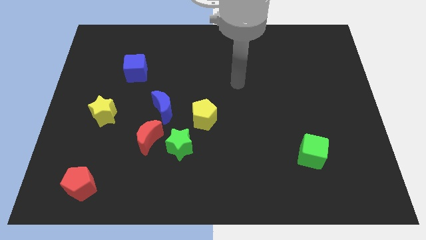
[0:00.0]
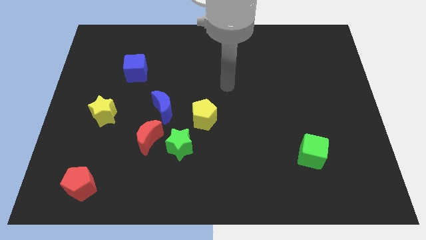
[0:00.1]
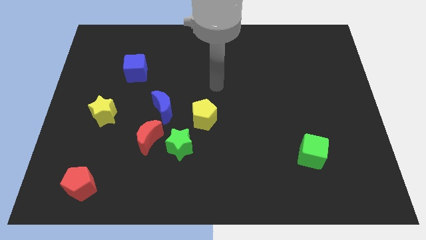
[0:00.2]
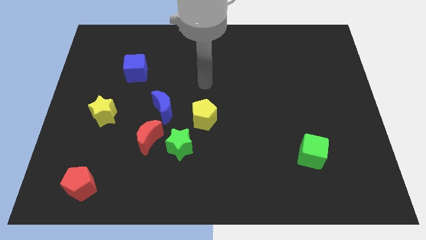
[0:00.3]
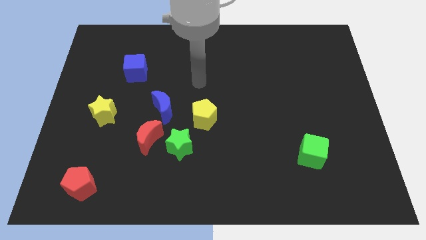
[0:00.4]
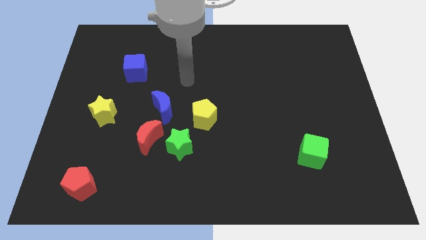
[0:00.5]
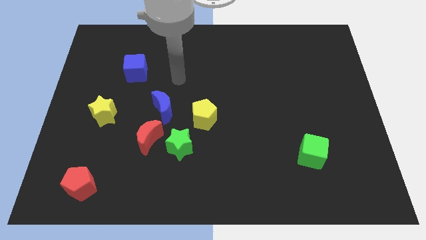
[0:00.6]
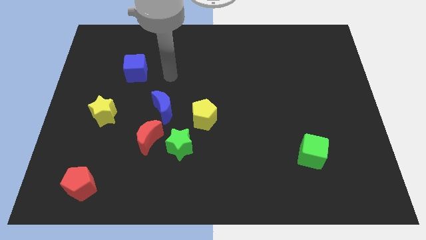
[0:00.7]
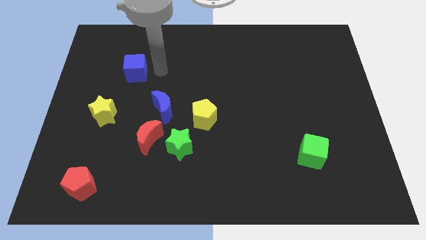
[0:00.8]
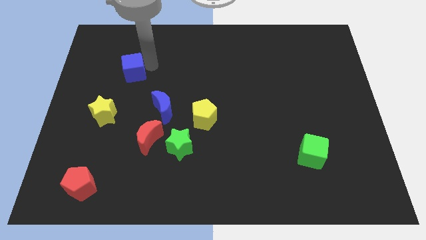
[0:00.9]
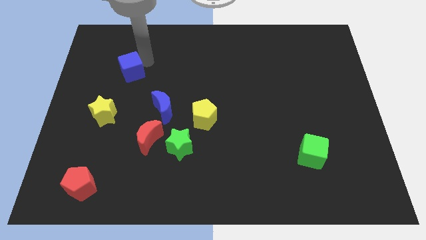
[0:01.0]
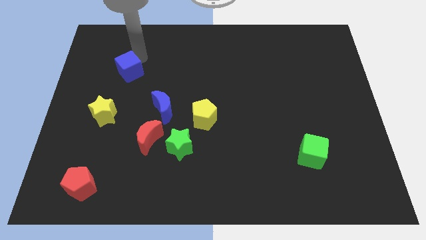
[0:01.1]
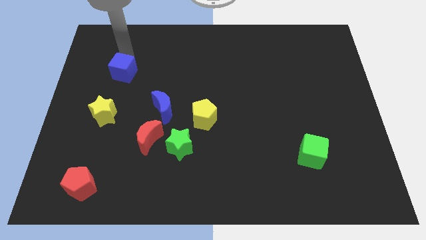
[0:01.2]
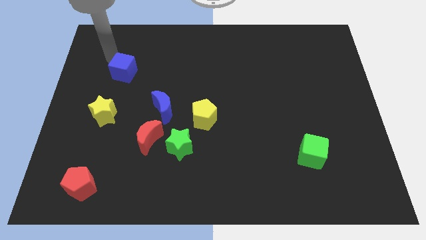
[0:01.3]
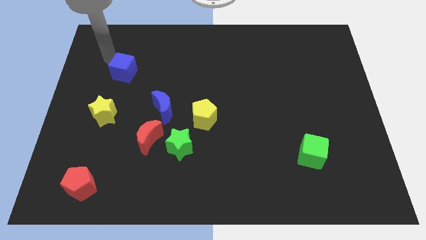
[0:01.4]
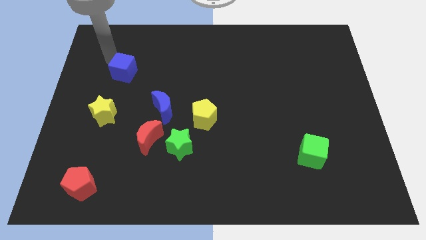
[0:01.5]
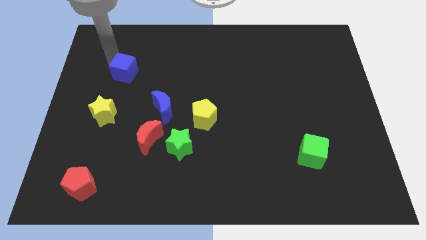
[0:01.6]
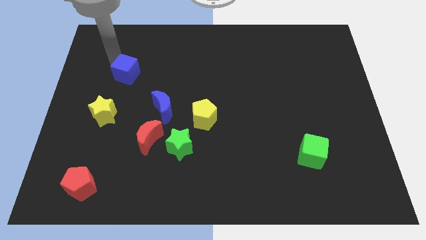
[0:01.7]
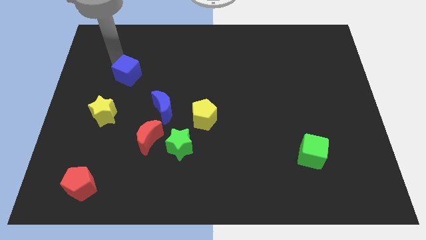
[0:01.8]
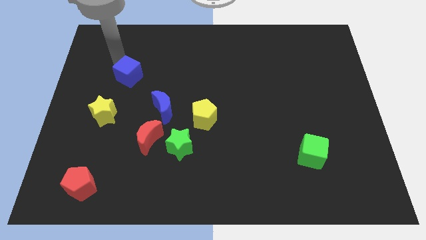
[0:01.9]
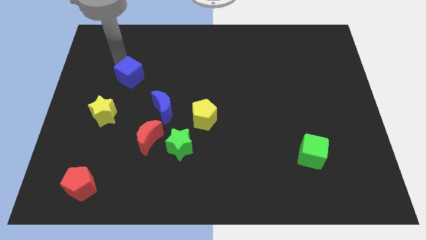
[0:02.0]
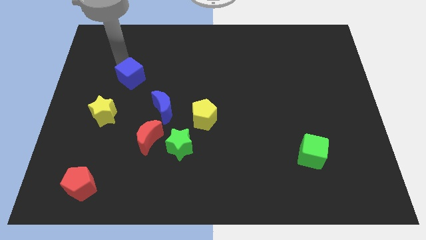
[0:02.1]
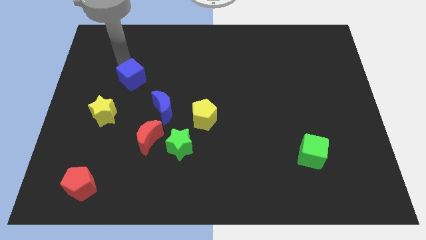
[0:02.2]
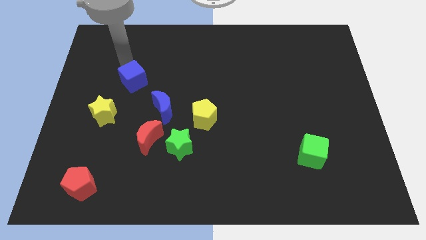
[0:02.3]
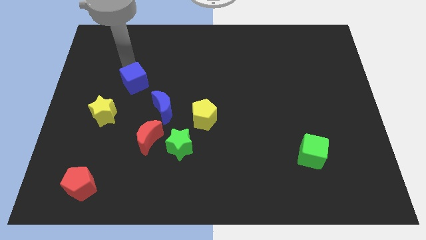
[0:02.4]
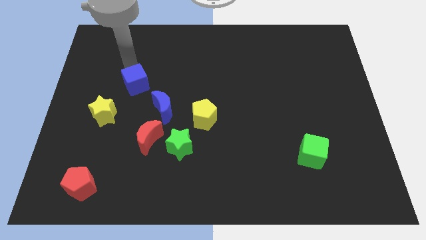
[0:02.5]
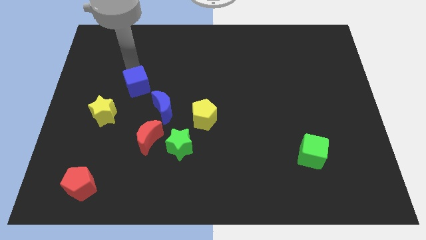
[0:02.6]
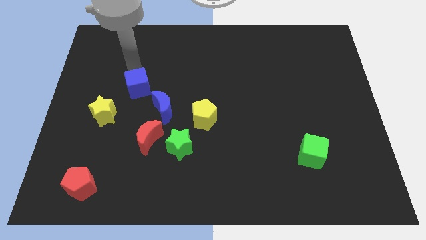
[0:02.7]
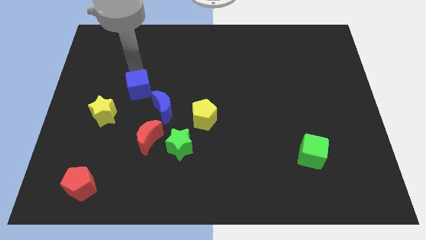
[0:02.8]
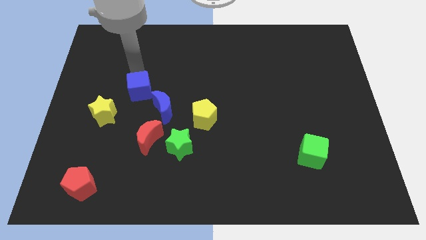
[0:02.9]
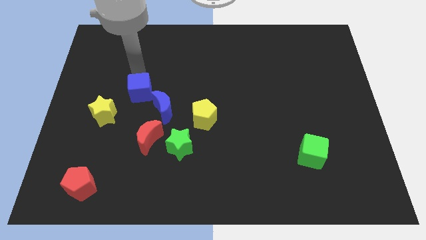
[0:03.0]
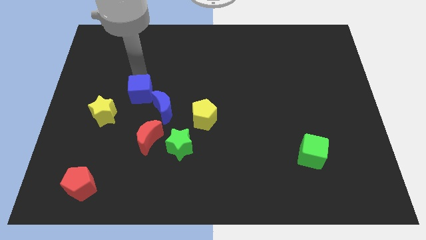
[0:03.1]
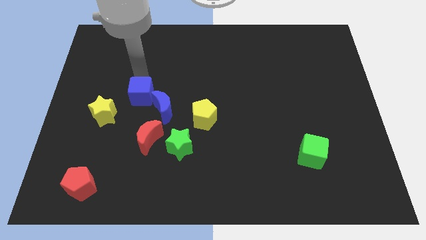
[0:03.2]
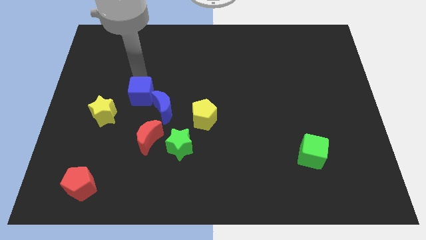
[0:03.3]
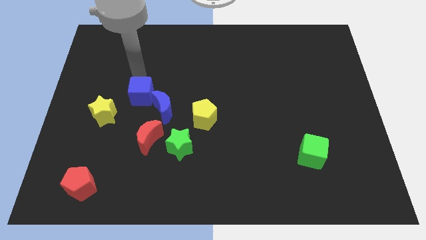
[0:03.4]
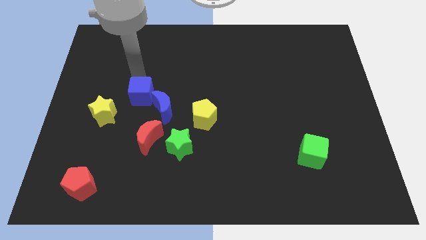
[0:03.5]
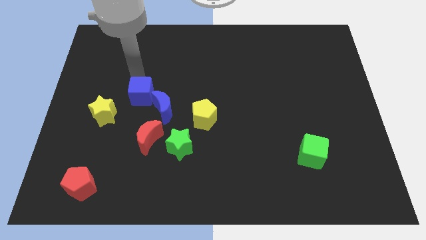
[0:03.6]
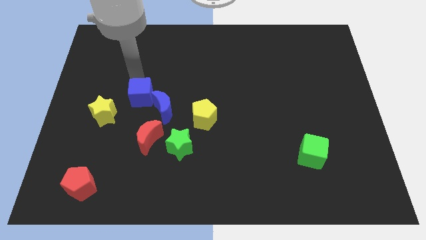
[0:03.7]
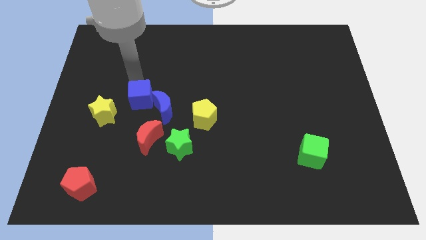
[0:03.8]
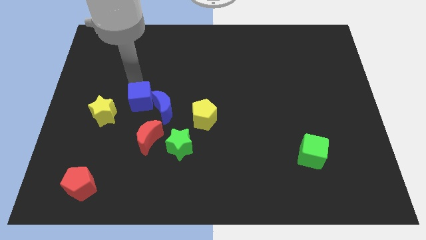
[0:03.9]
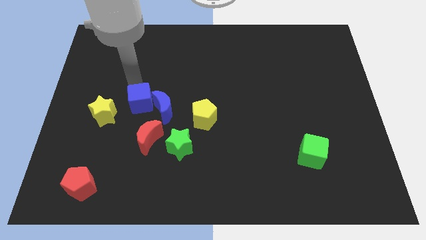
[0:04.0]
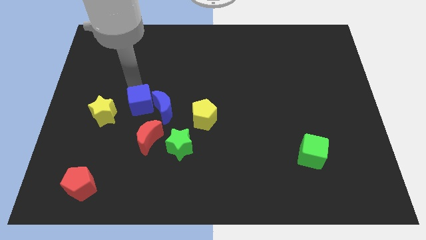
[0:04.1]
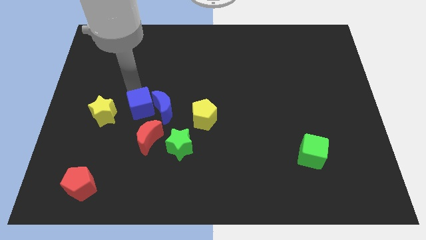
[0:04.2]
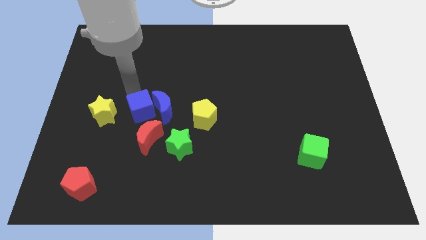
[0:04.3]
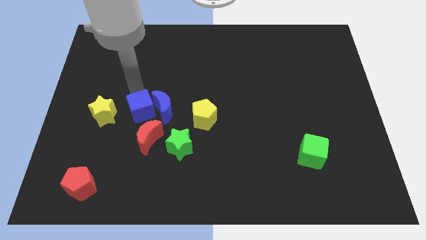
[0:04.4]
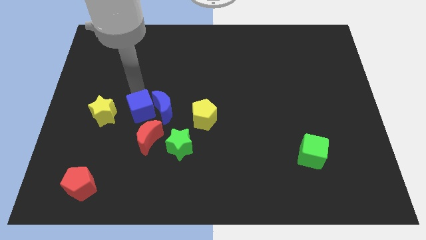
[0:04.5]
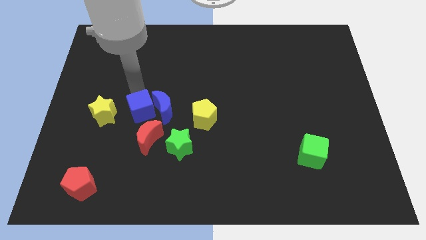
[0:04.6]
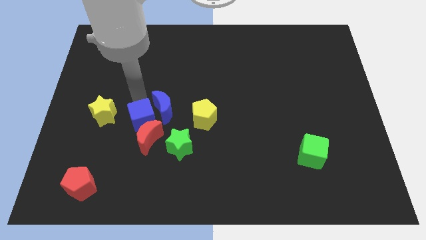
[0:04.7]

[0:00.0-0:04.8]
move the blue cube close to the red moon

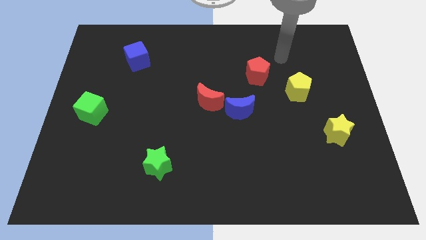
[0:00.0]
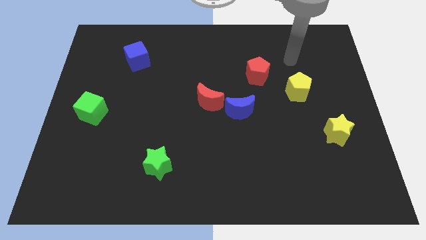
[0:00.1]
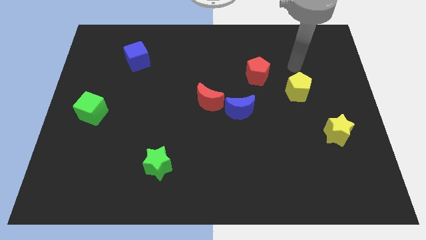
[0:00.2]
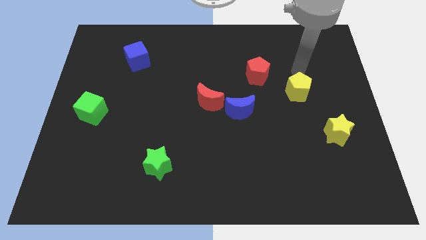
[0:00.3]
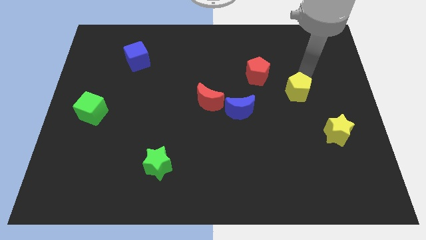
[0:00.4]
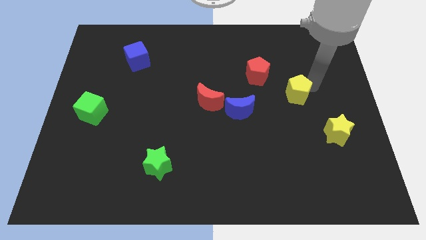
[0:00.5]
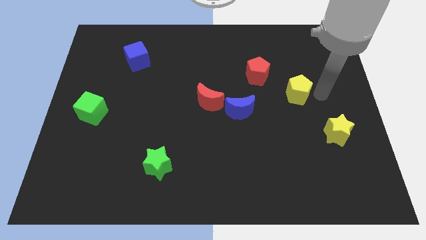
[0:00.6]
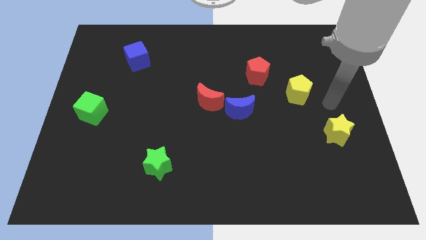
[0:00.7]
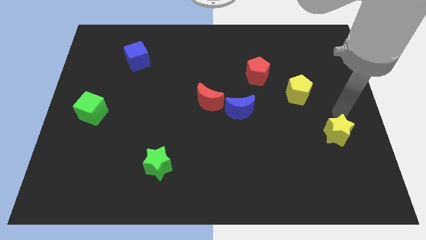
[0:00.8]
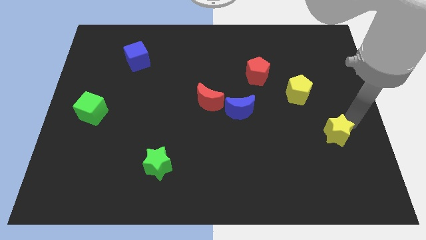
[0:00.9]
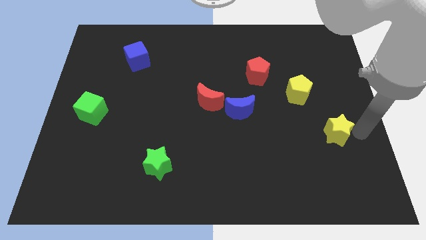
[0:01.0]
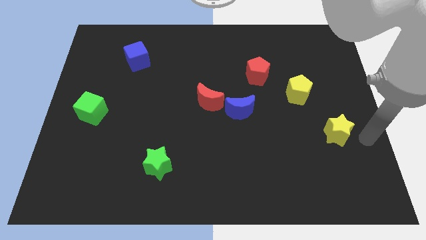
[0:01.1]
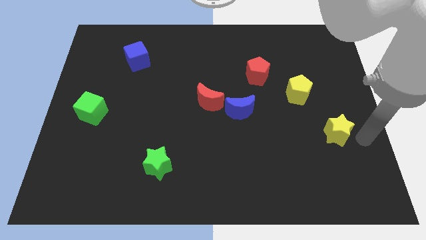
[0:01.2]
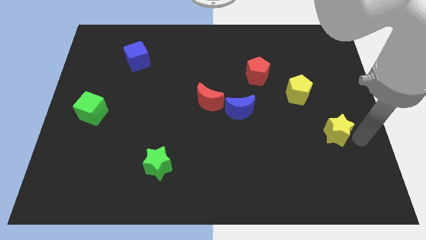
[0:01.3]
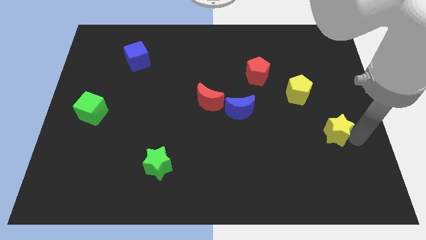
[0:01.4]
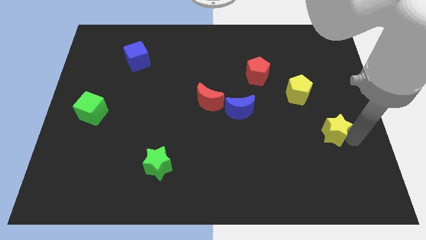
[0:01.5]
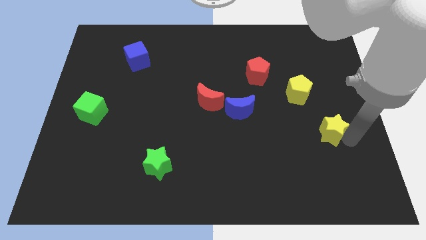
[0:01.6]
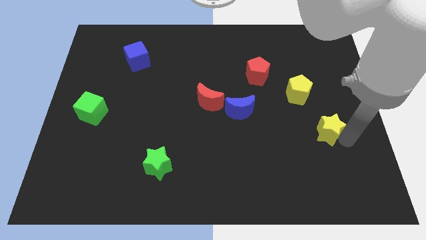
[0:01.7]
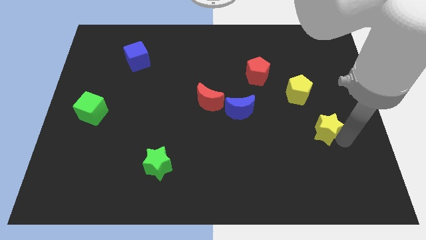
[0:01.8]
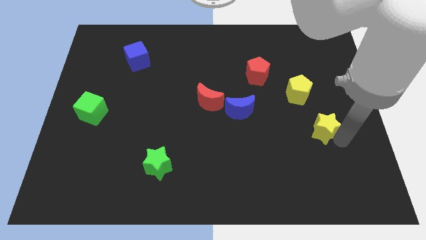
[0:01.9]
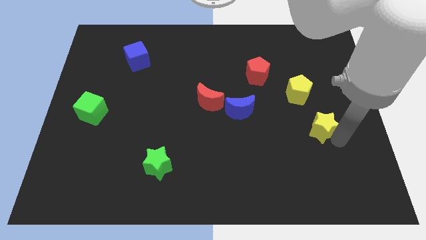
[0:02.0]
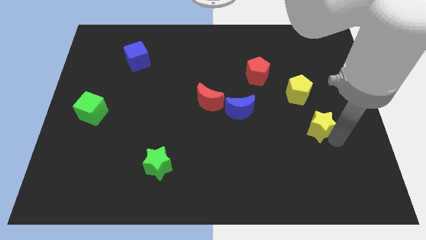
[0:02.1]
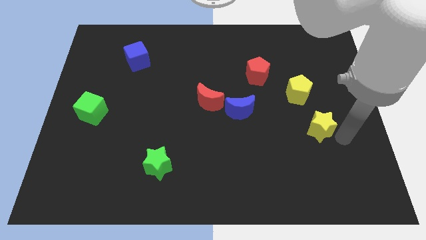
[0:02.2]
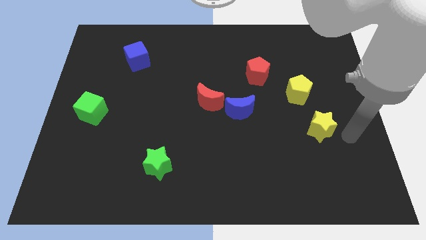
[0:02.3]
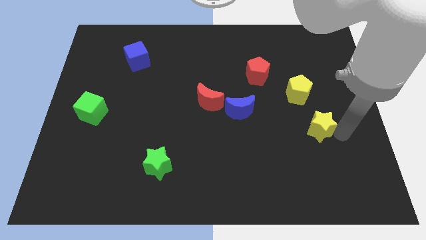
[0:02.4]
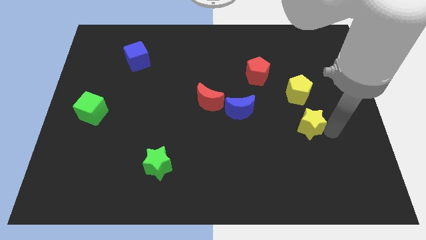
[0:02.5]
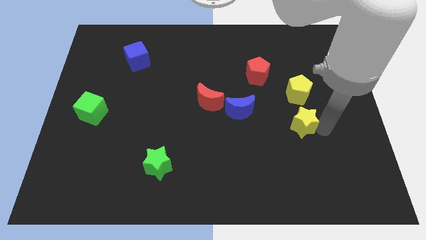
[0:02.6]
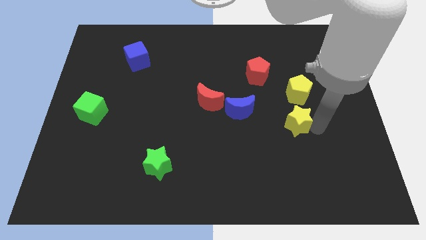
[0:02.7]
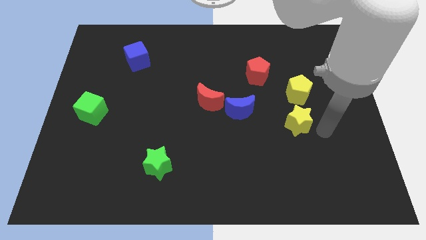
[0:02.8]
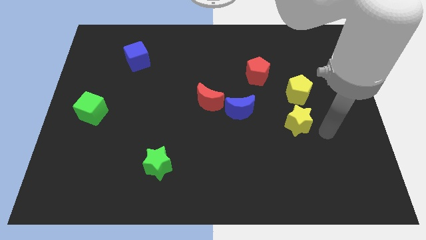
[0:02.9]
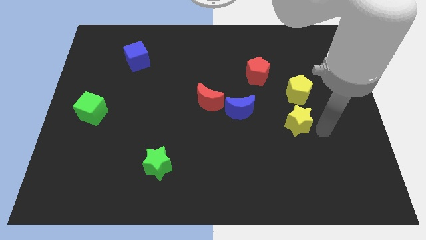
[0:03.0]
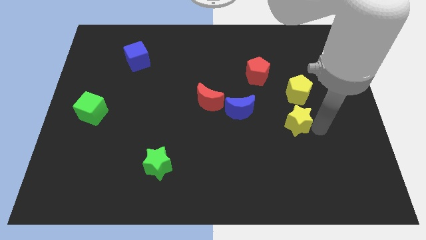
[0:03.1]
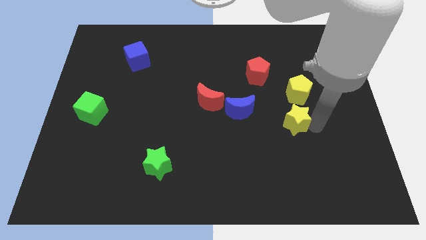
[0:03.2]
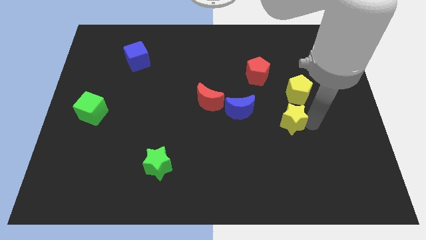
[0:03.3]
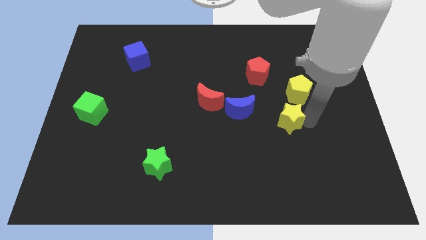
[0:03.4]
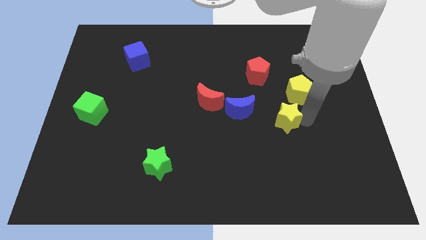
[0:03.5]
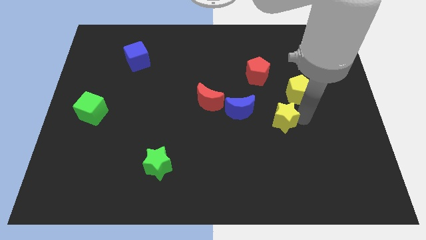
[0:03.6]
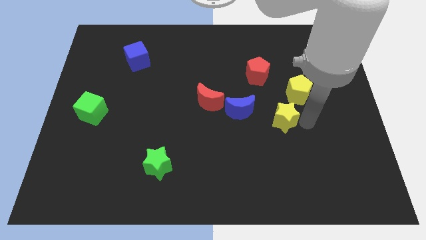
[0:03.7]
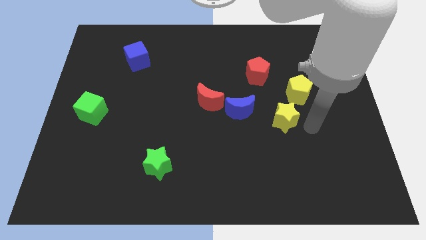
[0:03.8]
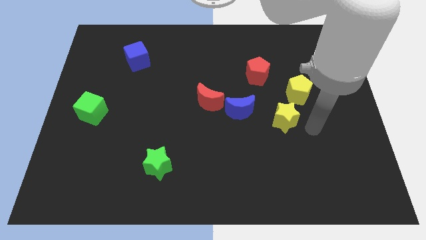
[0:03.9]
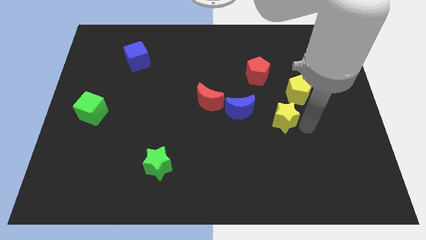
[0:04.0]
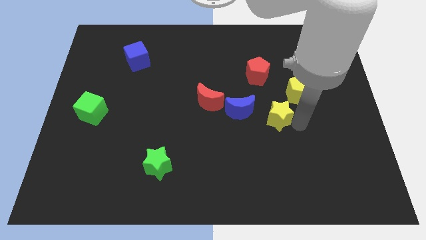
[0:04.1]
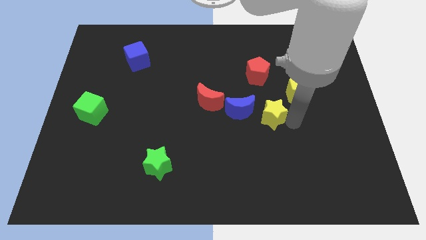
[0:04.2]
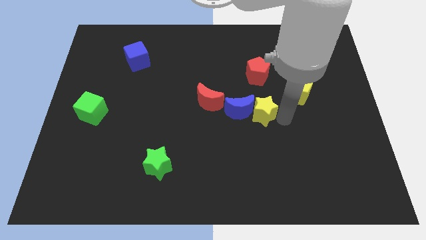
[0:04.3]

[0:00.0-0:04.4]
slide the yellow star to the blue moon
